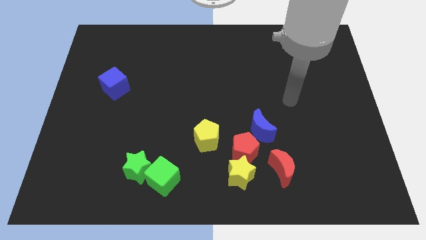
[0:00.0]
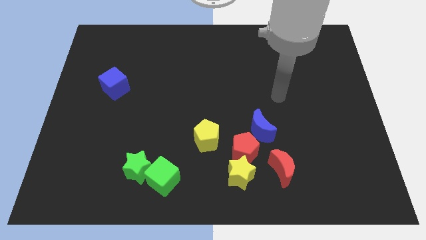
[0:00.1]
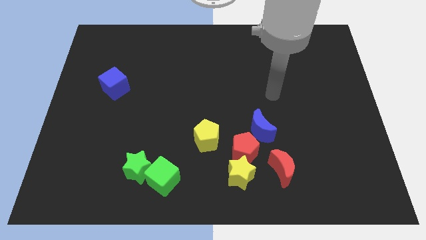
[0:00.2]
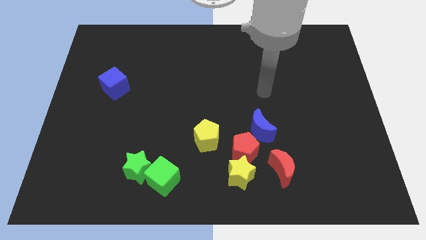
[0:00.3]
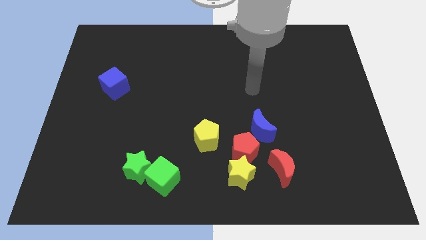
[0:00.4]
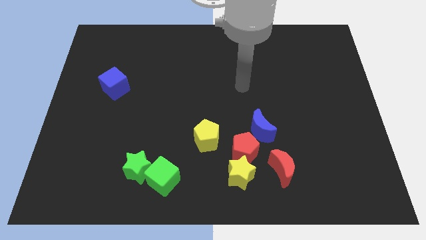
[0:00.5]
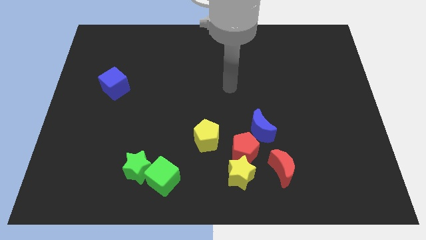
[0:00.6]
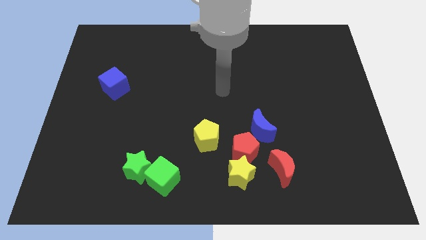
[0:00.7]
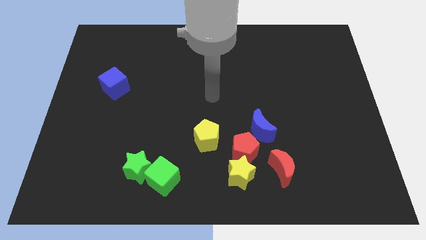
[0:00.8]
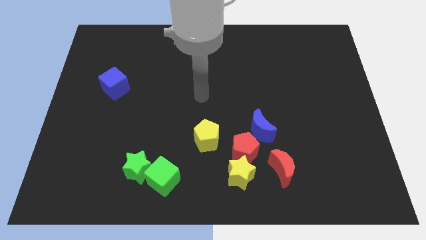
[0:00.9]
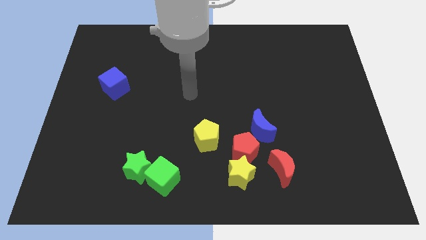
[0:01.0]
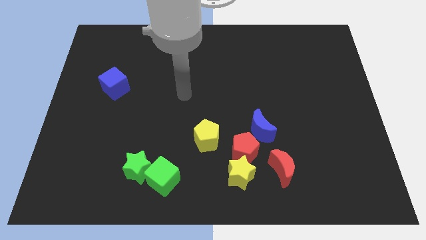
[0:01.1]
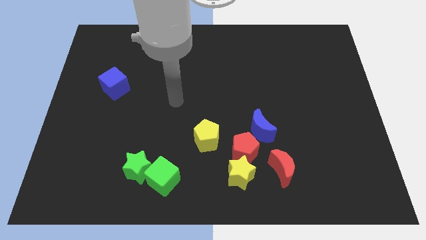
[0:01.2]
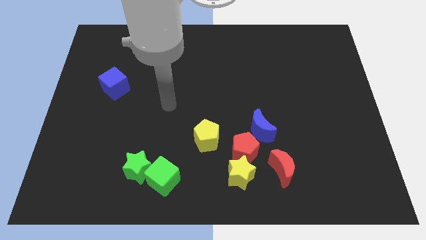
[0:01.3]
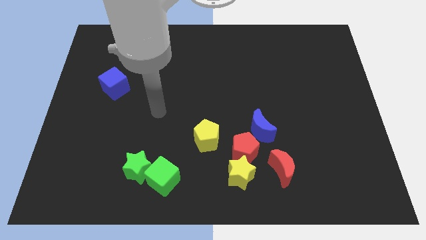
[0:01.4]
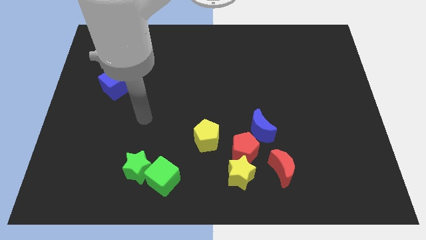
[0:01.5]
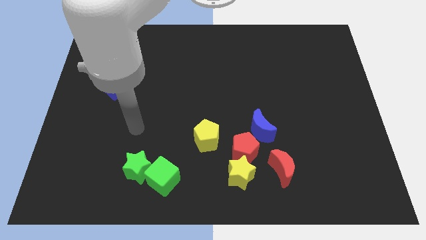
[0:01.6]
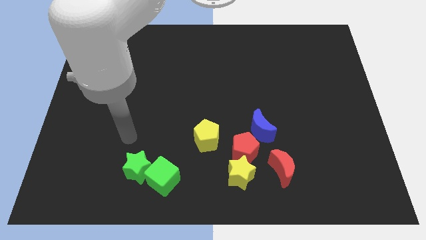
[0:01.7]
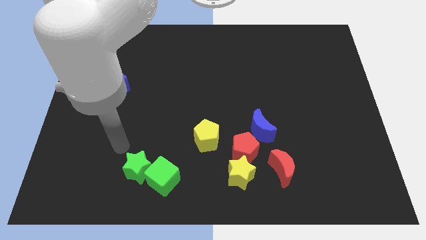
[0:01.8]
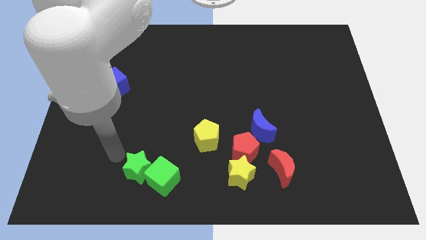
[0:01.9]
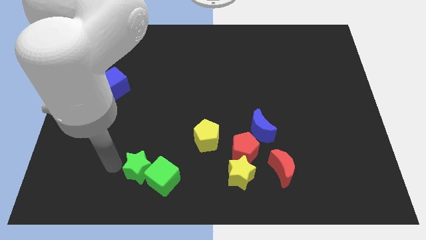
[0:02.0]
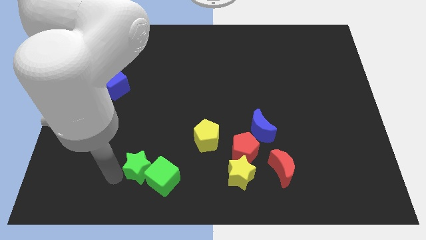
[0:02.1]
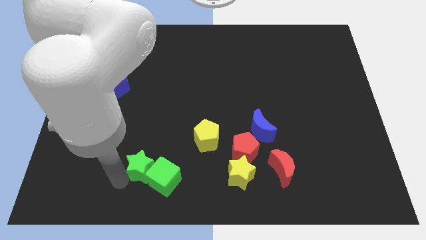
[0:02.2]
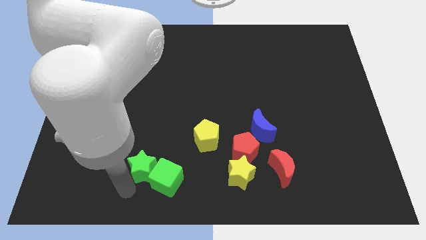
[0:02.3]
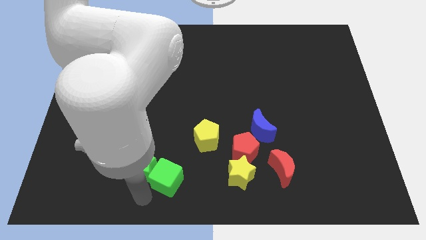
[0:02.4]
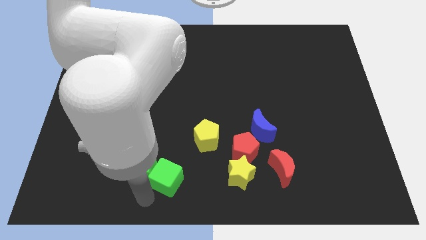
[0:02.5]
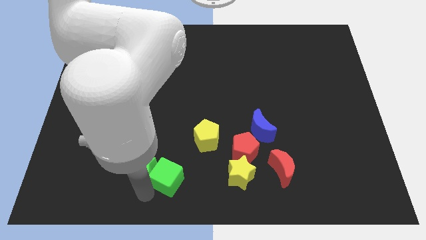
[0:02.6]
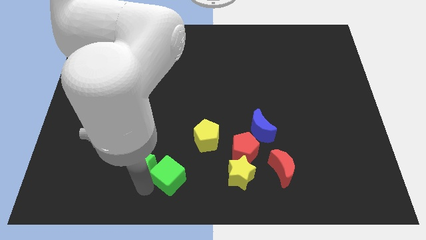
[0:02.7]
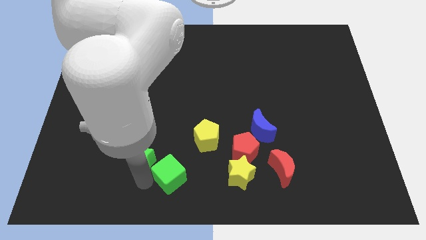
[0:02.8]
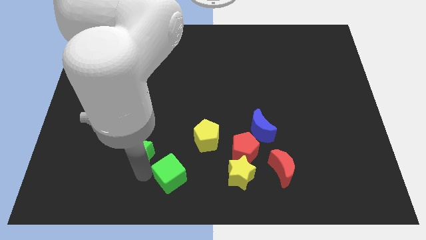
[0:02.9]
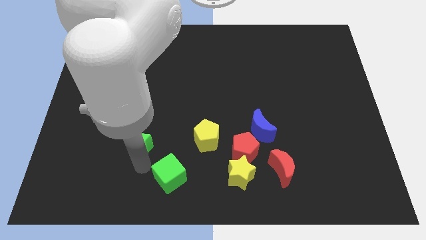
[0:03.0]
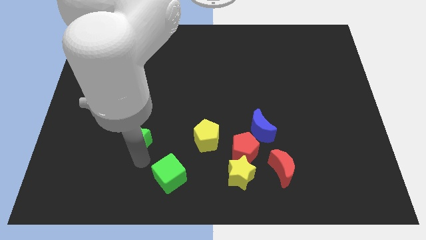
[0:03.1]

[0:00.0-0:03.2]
push the green star up slightly

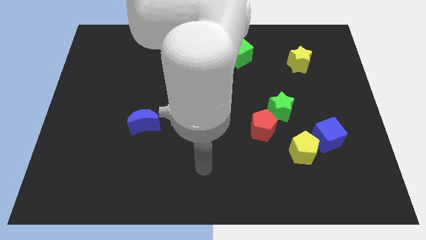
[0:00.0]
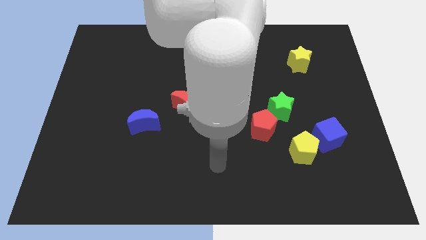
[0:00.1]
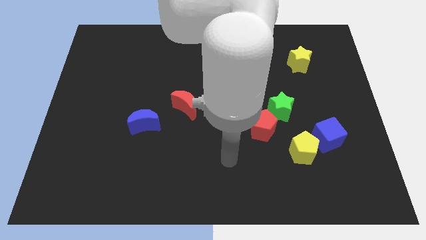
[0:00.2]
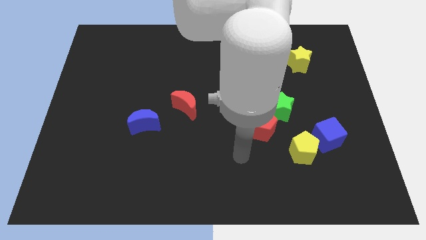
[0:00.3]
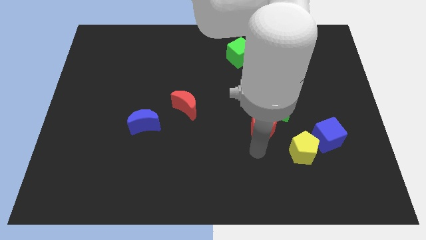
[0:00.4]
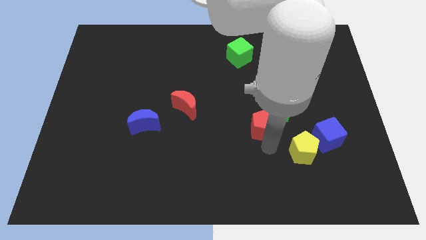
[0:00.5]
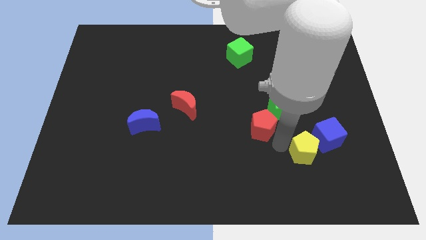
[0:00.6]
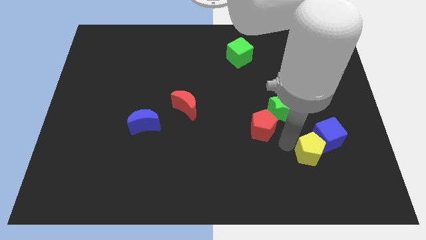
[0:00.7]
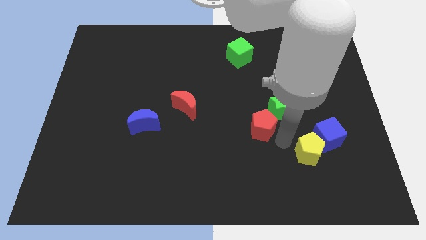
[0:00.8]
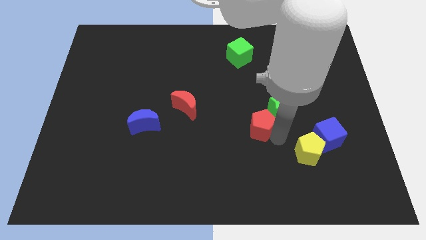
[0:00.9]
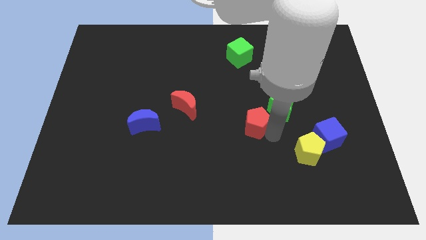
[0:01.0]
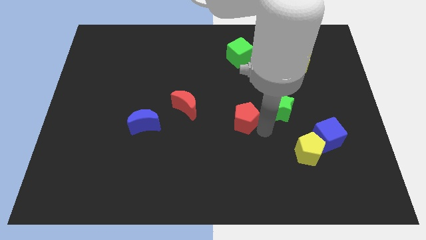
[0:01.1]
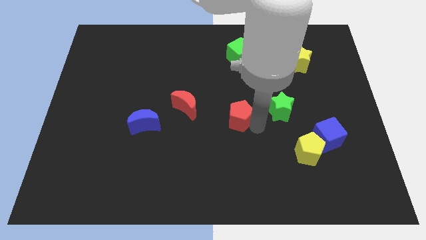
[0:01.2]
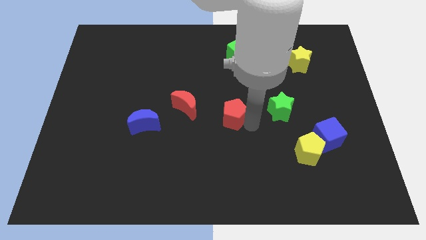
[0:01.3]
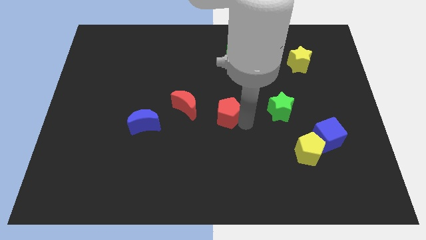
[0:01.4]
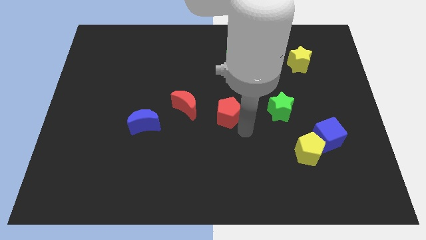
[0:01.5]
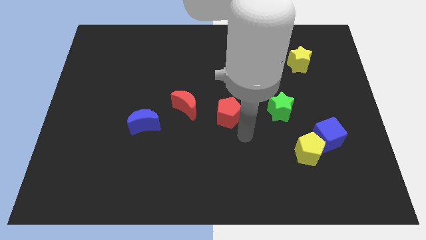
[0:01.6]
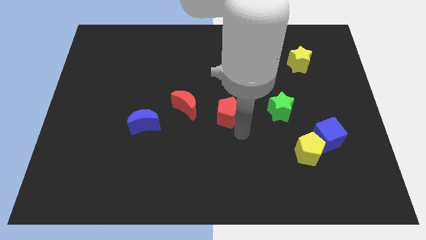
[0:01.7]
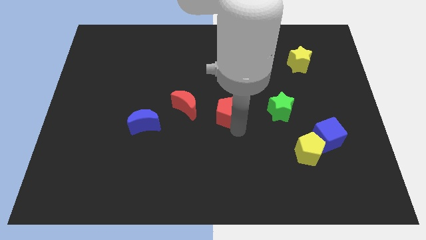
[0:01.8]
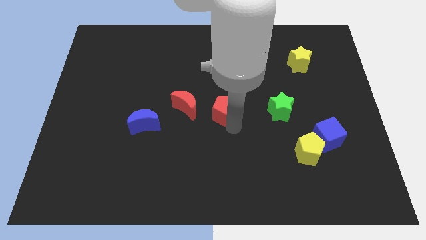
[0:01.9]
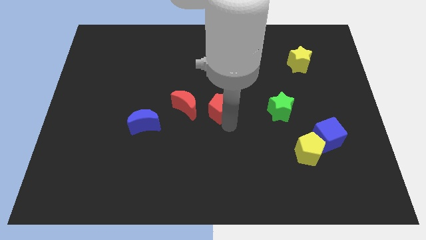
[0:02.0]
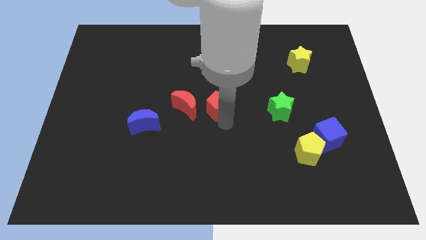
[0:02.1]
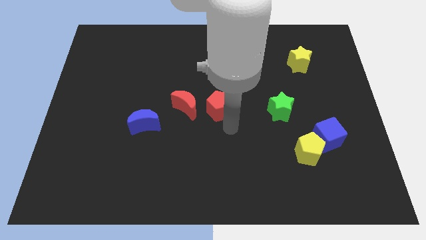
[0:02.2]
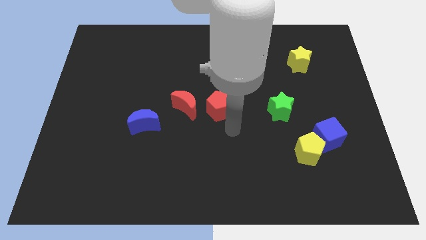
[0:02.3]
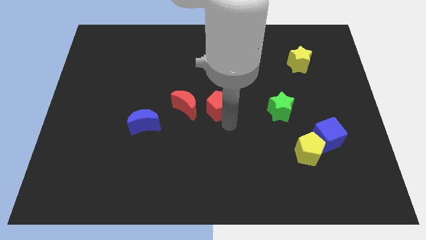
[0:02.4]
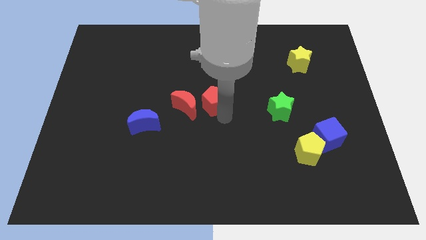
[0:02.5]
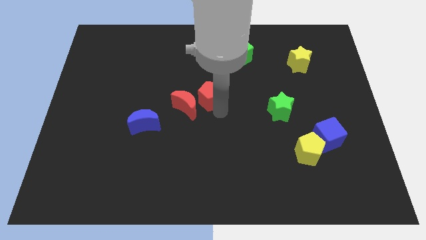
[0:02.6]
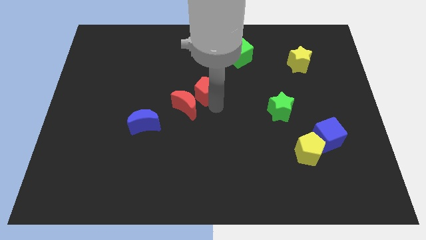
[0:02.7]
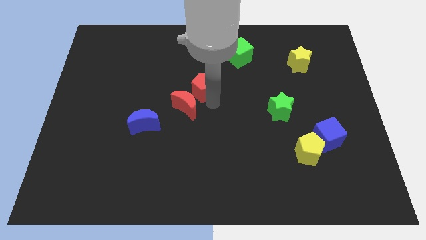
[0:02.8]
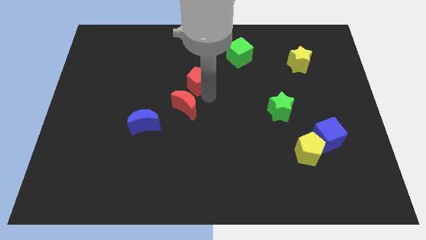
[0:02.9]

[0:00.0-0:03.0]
slide the red pentagon up and then left

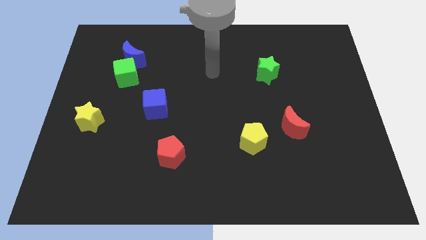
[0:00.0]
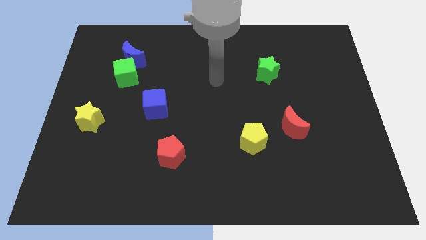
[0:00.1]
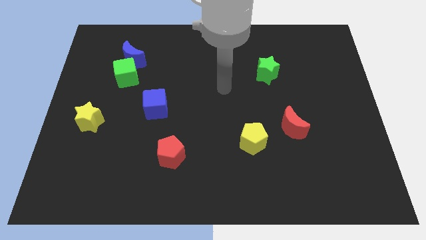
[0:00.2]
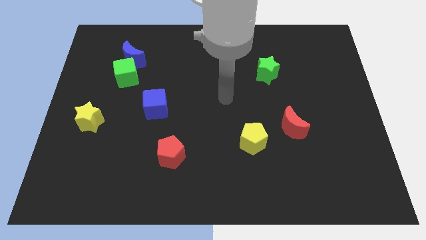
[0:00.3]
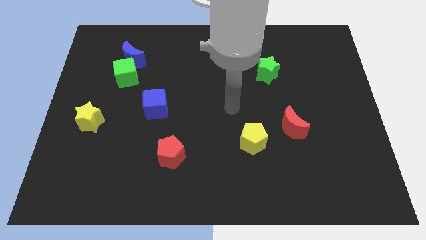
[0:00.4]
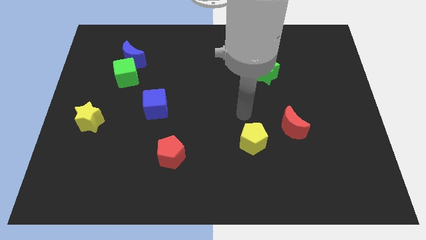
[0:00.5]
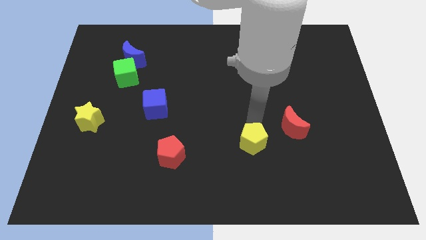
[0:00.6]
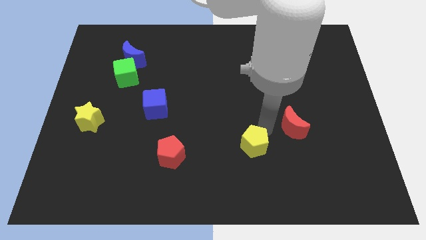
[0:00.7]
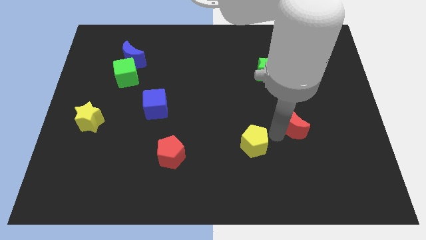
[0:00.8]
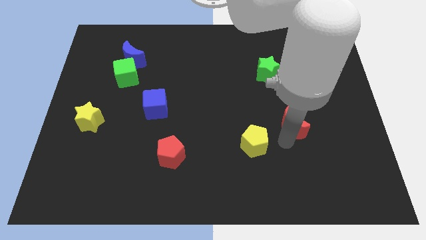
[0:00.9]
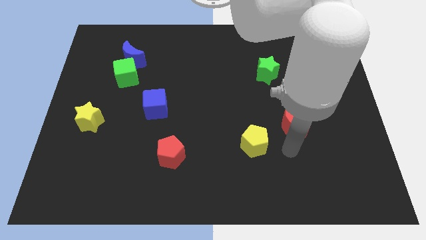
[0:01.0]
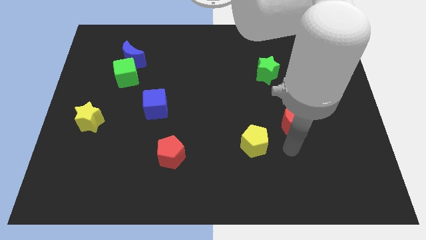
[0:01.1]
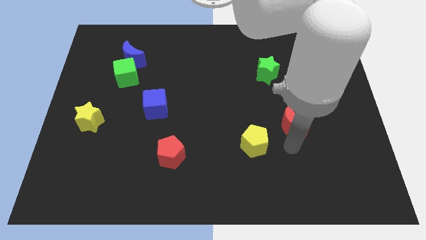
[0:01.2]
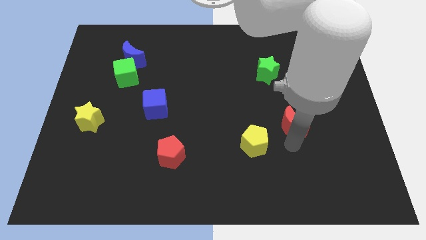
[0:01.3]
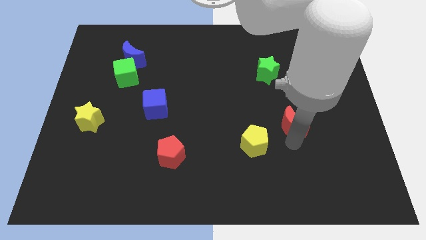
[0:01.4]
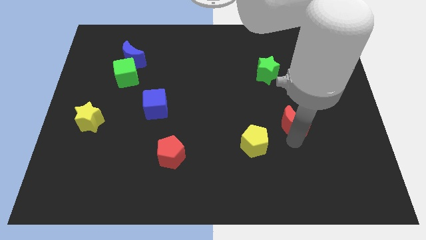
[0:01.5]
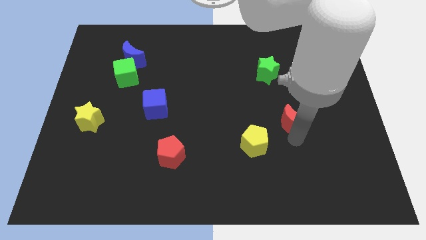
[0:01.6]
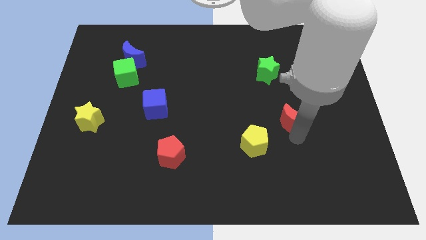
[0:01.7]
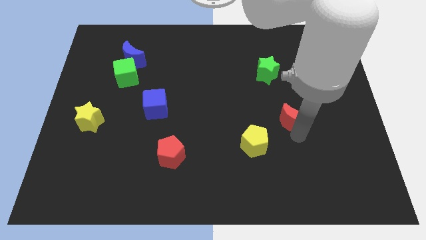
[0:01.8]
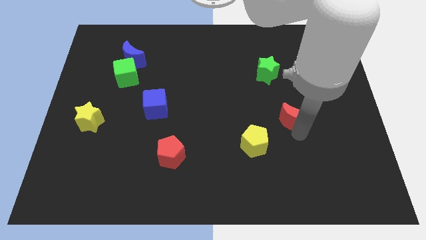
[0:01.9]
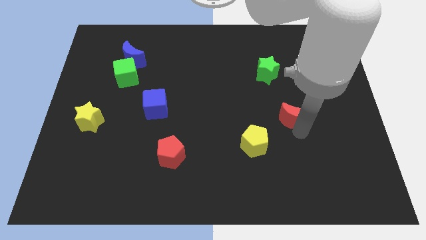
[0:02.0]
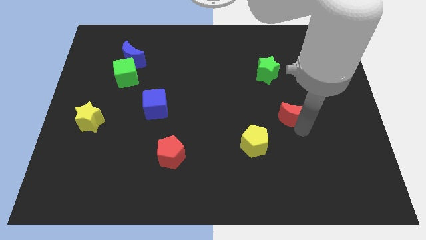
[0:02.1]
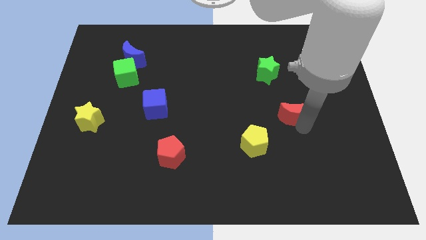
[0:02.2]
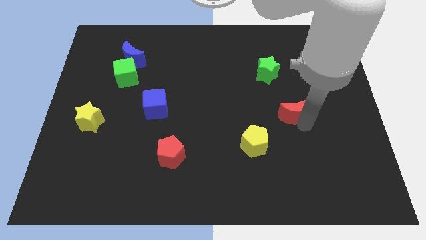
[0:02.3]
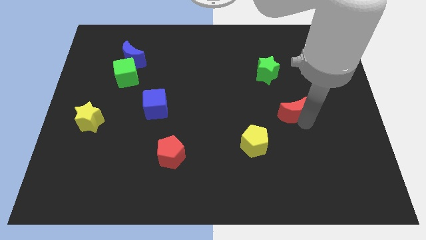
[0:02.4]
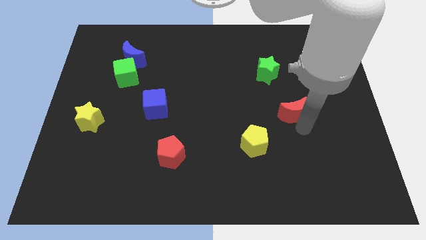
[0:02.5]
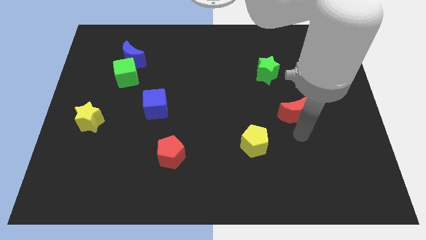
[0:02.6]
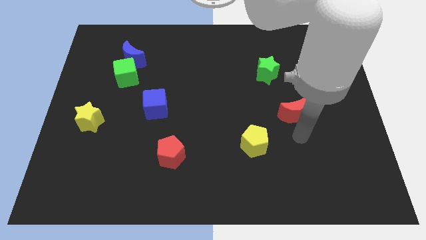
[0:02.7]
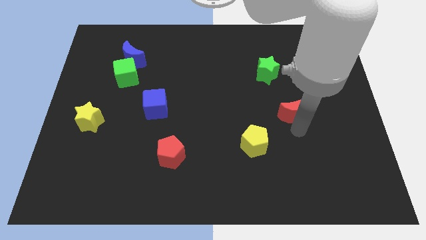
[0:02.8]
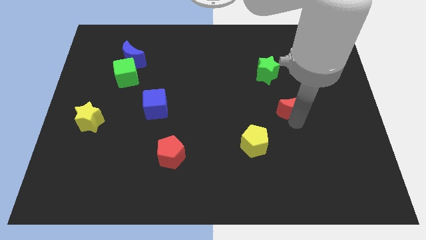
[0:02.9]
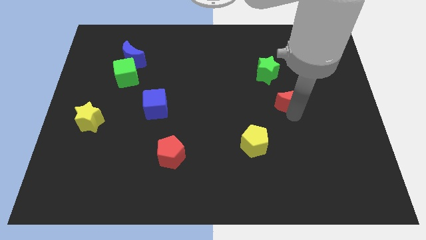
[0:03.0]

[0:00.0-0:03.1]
slide the red moon upwards slightly
